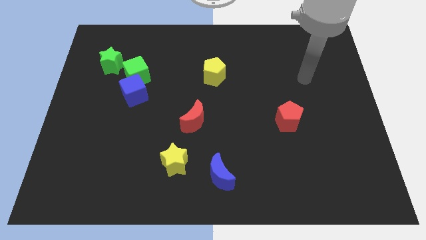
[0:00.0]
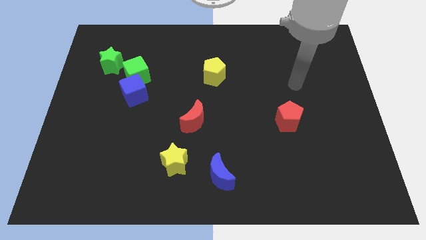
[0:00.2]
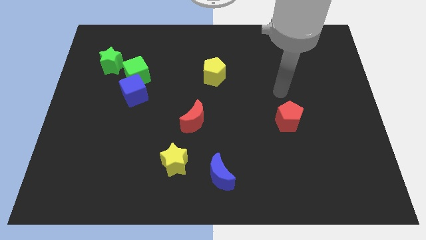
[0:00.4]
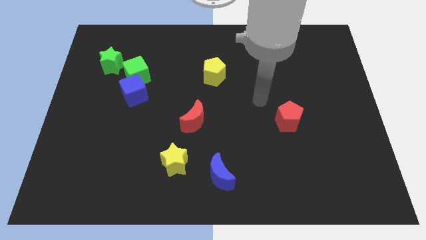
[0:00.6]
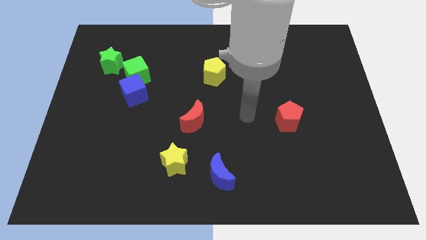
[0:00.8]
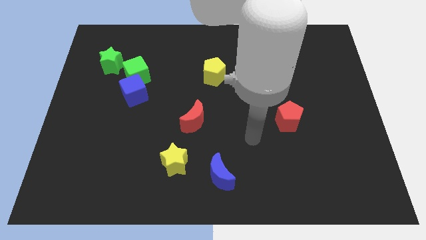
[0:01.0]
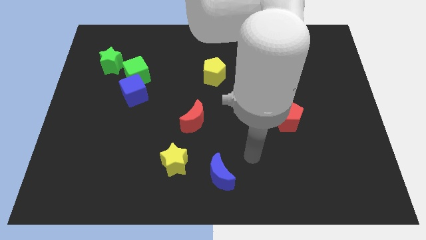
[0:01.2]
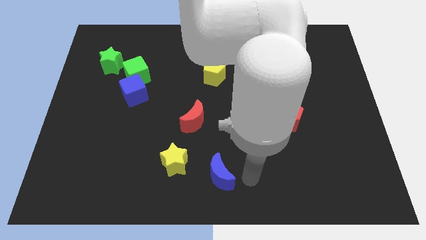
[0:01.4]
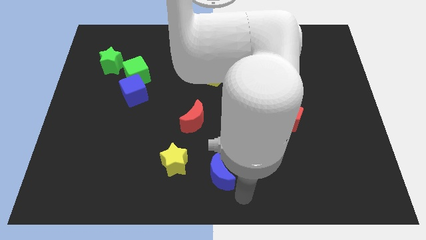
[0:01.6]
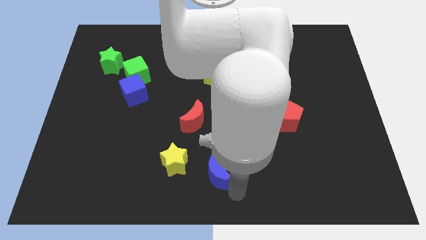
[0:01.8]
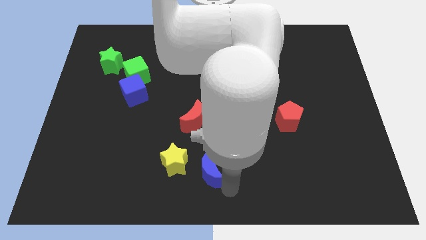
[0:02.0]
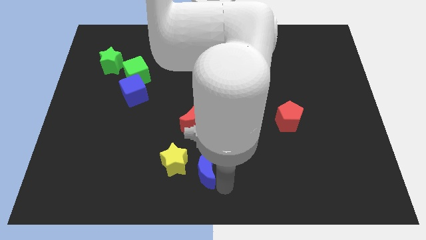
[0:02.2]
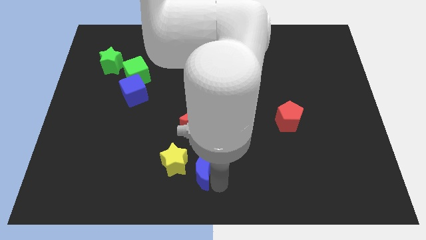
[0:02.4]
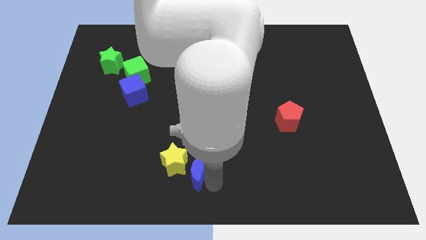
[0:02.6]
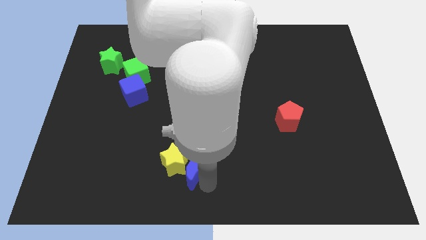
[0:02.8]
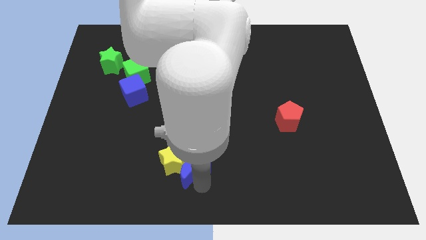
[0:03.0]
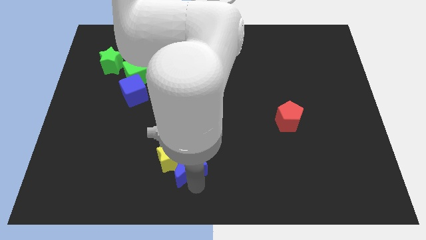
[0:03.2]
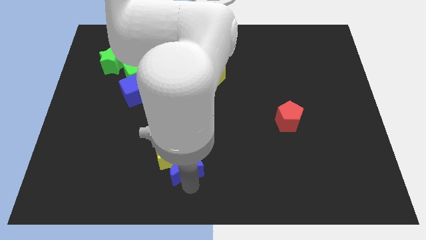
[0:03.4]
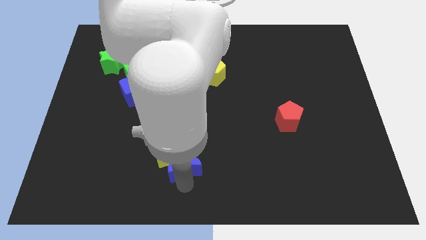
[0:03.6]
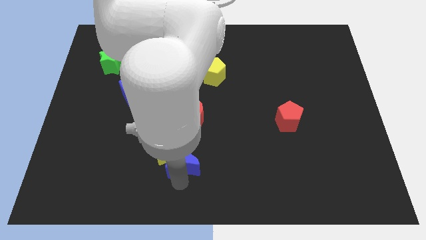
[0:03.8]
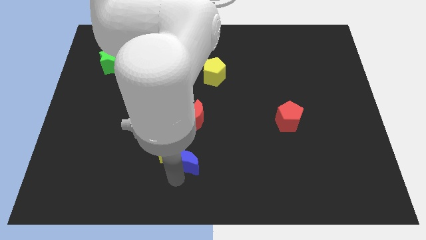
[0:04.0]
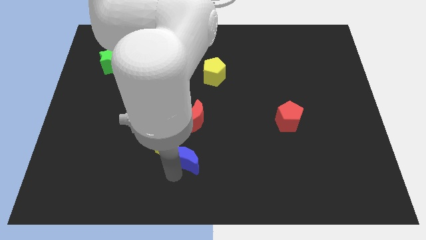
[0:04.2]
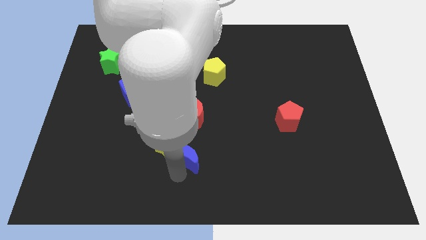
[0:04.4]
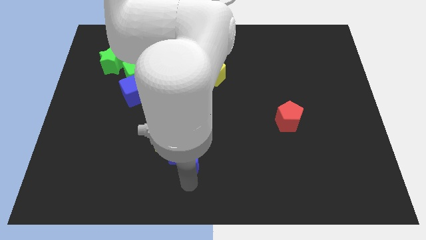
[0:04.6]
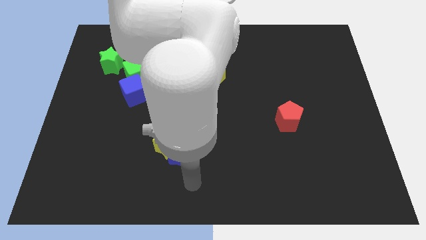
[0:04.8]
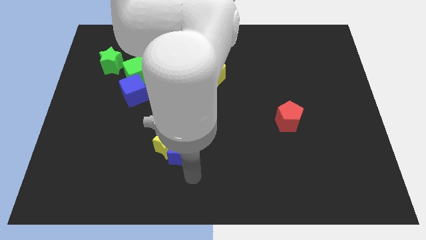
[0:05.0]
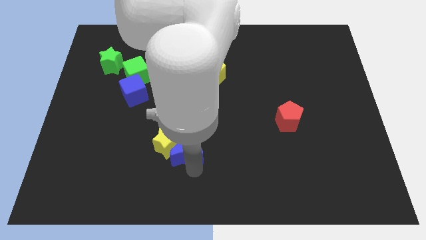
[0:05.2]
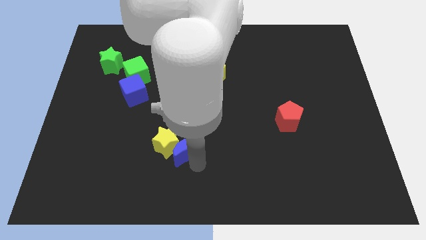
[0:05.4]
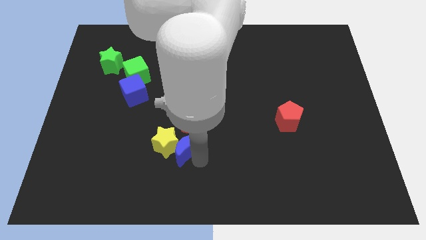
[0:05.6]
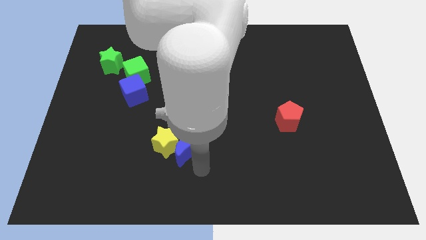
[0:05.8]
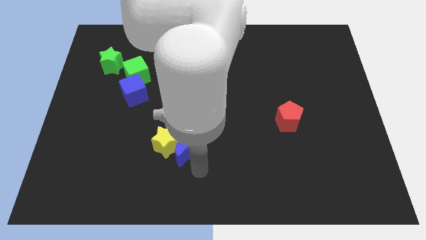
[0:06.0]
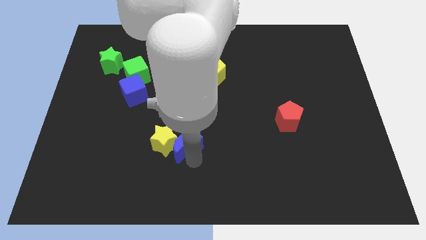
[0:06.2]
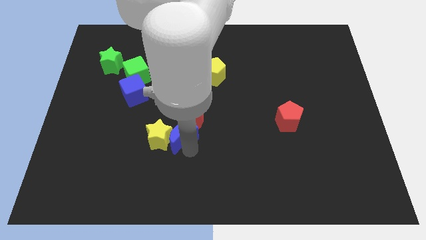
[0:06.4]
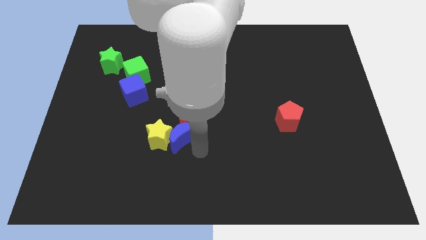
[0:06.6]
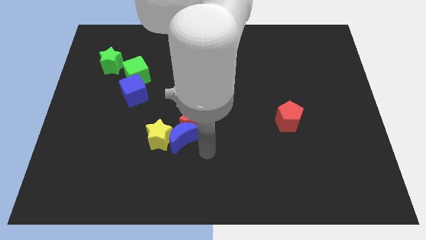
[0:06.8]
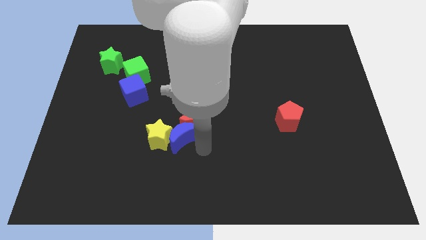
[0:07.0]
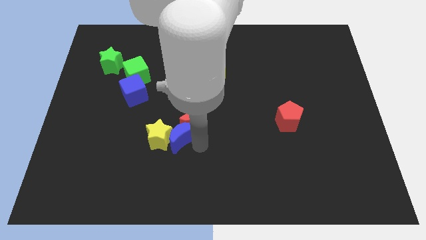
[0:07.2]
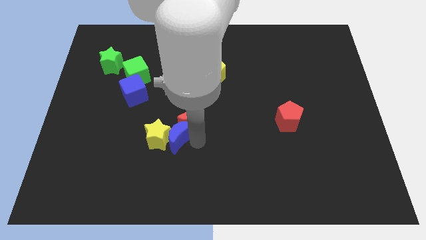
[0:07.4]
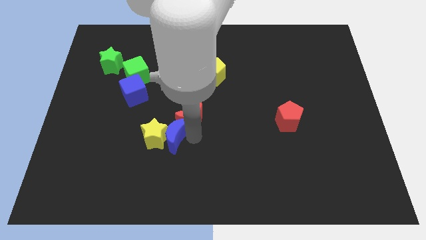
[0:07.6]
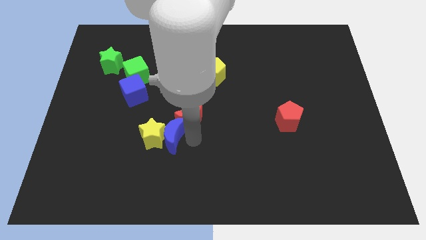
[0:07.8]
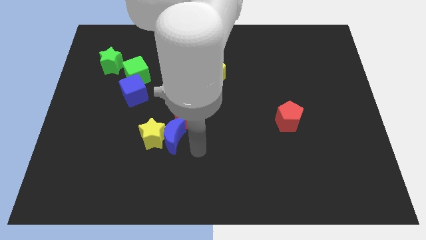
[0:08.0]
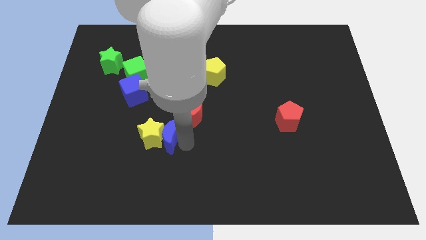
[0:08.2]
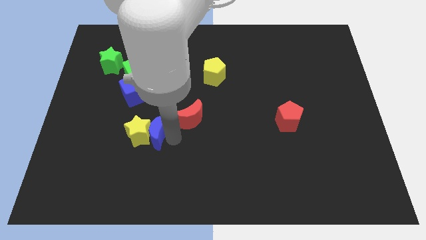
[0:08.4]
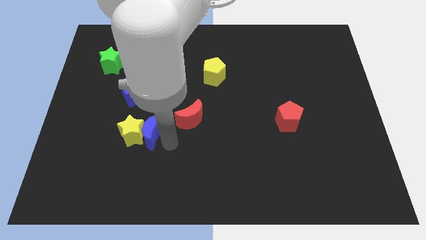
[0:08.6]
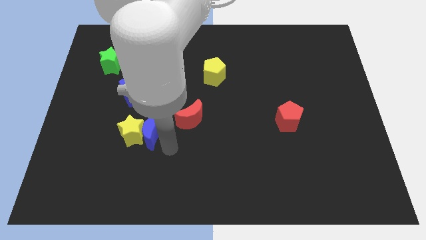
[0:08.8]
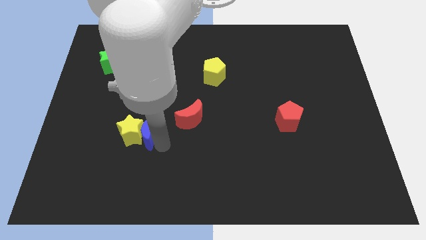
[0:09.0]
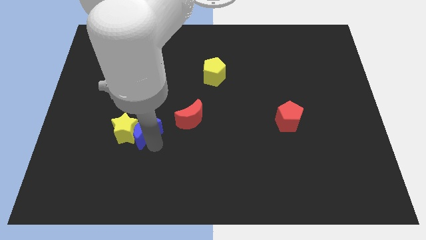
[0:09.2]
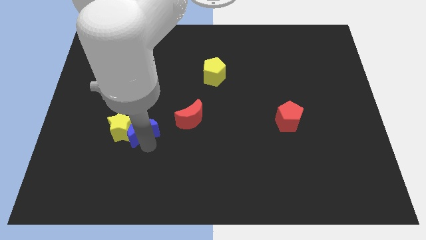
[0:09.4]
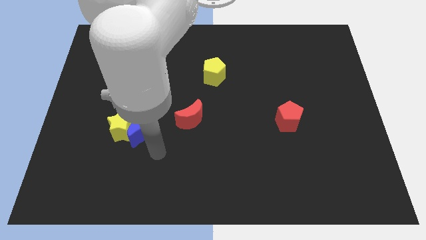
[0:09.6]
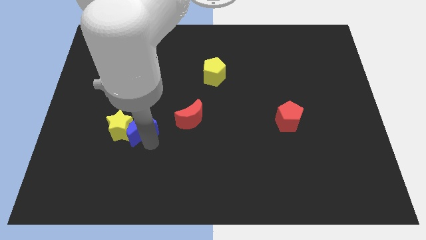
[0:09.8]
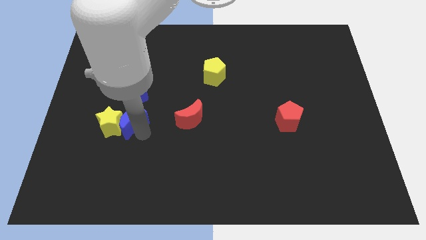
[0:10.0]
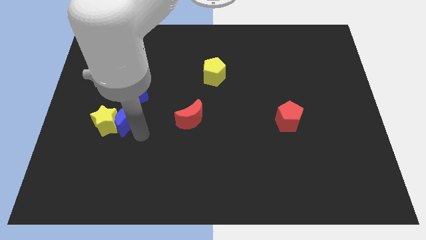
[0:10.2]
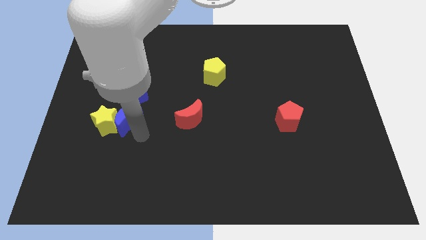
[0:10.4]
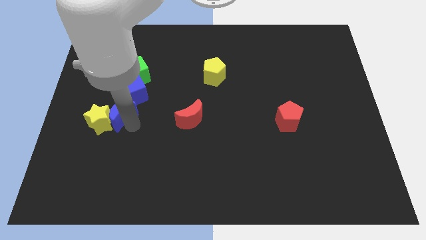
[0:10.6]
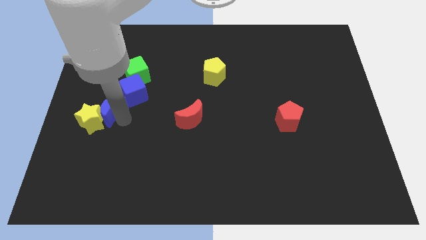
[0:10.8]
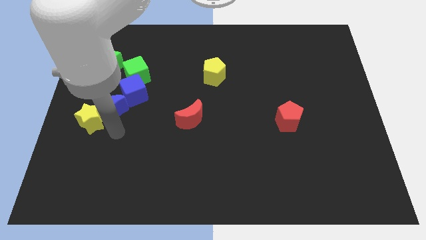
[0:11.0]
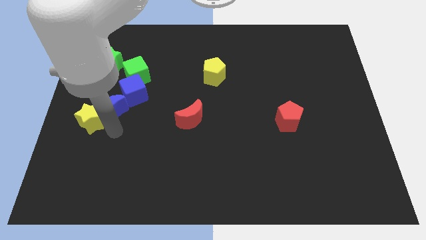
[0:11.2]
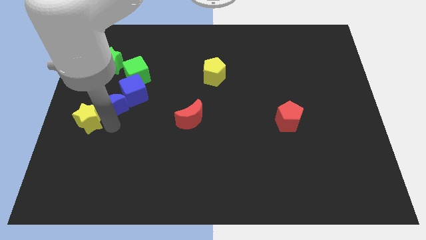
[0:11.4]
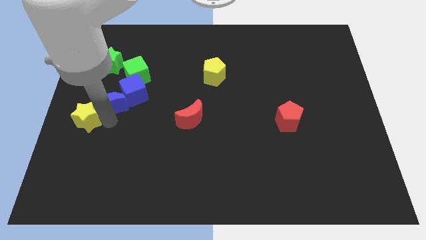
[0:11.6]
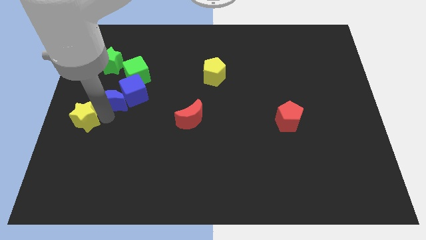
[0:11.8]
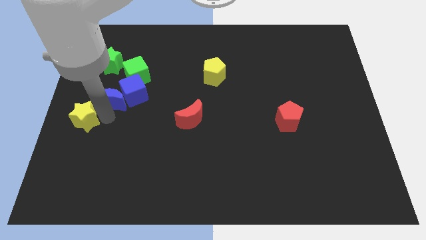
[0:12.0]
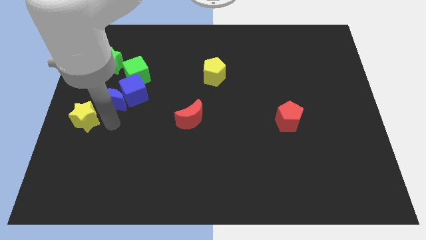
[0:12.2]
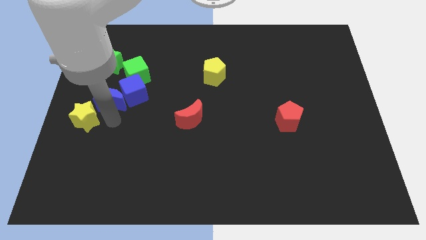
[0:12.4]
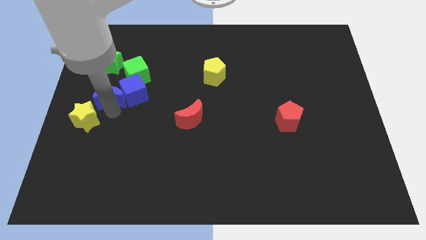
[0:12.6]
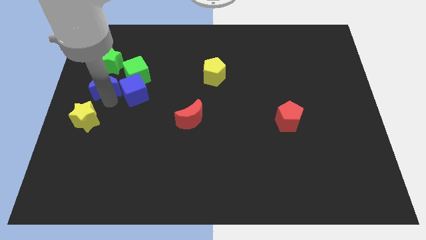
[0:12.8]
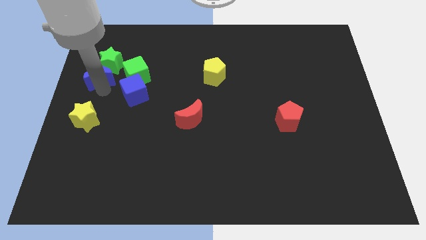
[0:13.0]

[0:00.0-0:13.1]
move the blue moon towards the green star

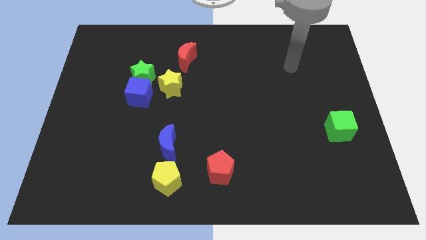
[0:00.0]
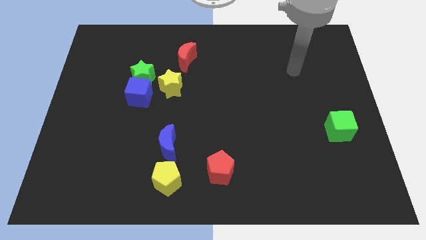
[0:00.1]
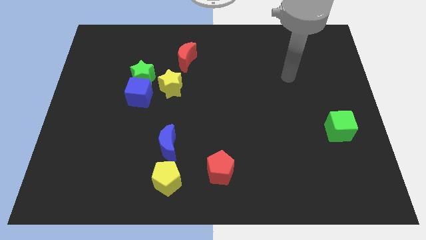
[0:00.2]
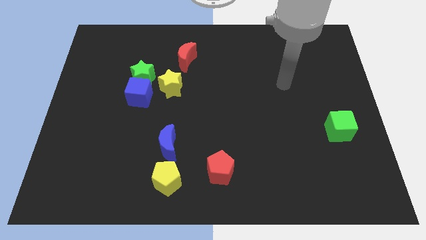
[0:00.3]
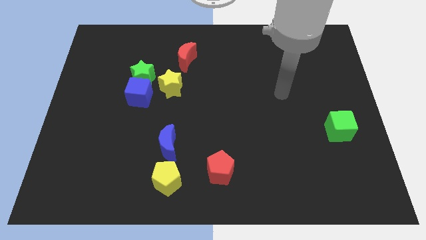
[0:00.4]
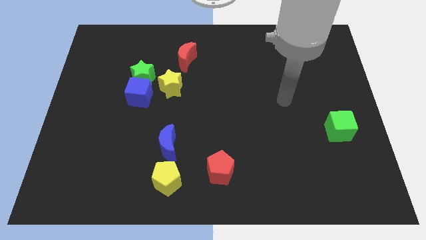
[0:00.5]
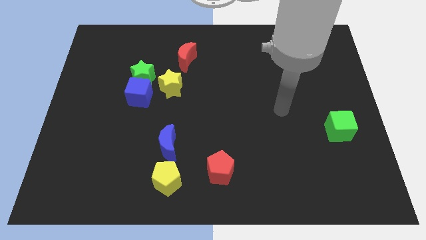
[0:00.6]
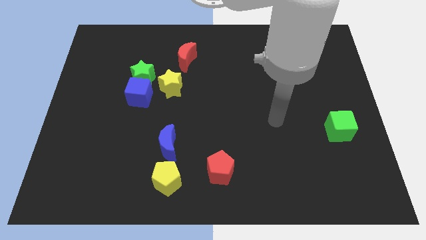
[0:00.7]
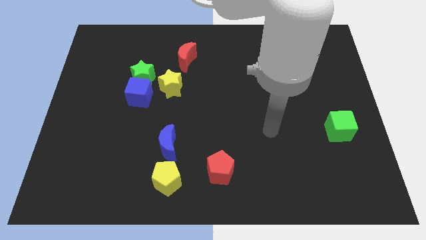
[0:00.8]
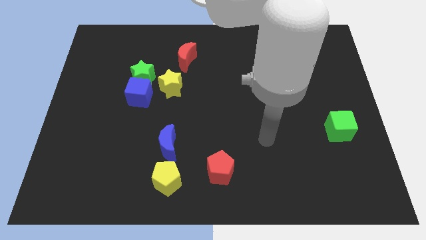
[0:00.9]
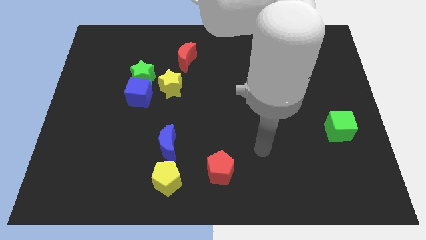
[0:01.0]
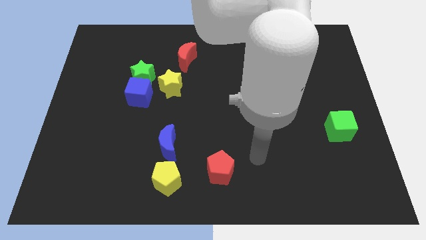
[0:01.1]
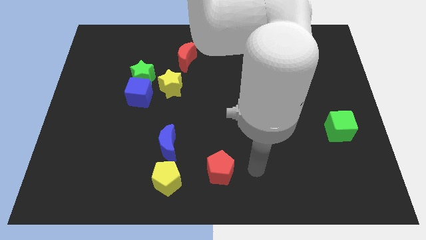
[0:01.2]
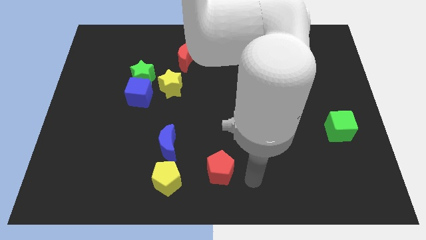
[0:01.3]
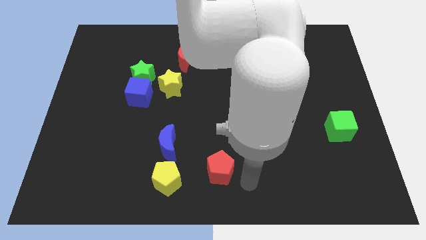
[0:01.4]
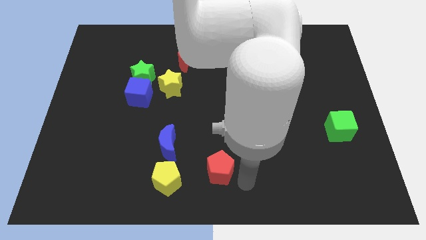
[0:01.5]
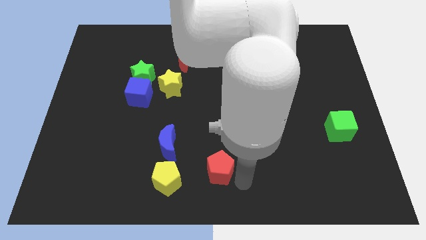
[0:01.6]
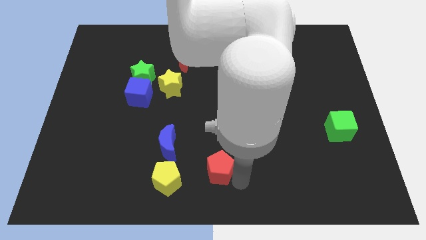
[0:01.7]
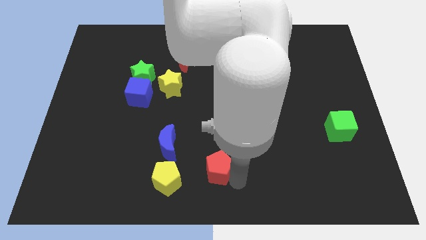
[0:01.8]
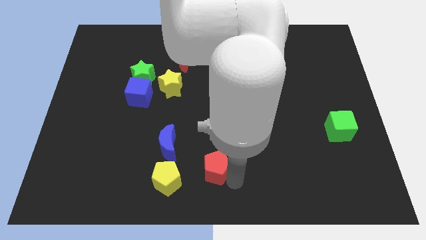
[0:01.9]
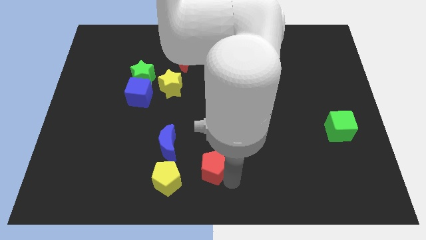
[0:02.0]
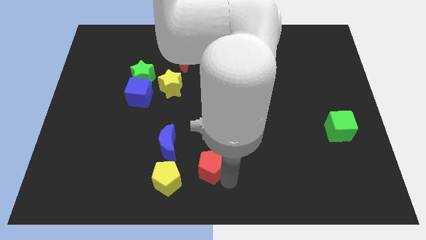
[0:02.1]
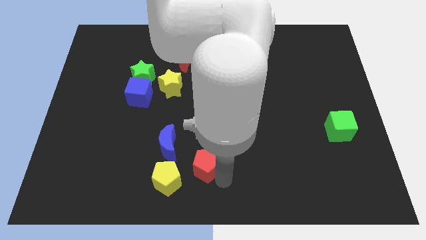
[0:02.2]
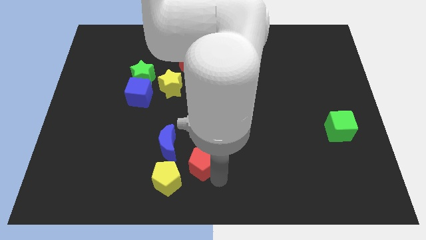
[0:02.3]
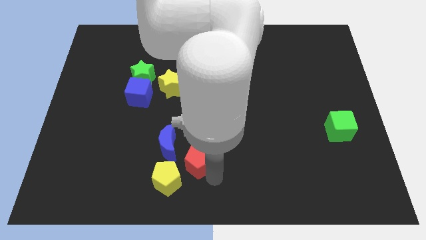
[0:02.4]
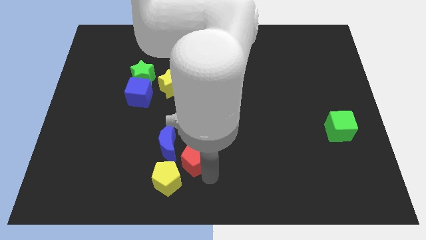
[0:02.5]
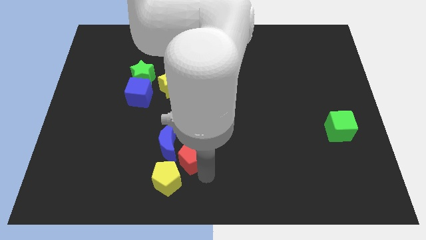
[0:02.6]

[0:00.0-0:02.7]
slide the red pentagon towards the blue moon

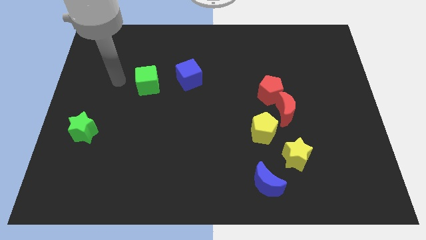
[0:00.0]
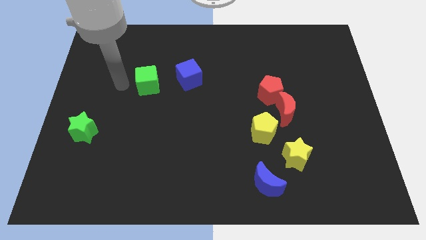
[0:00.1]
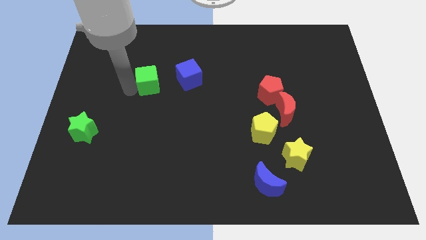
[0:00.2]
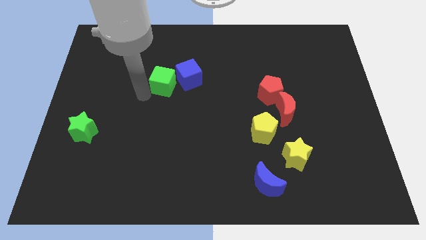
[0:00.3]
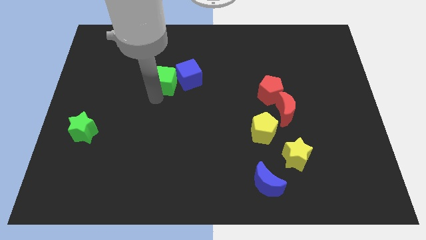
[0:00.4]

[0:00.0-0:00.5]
put the blue cube towards the green cube
